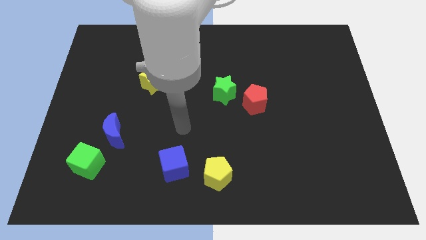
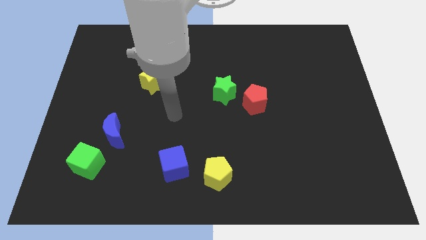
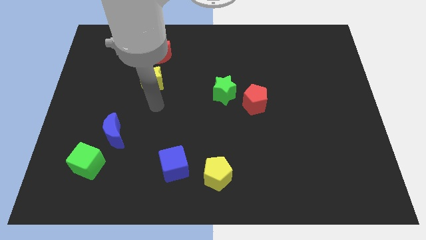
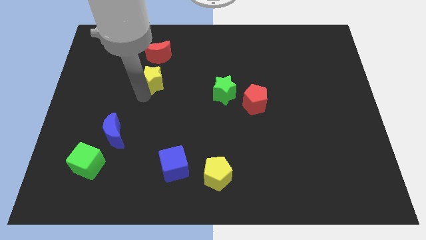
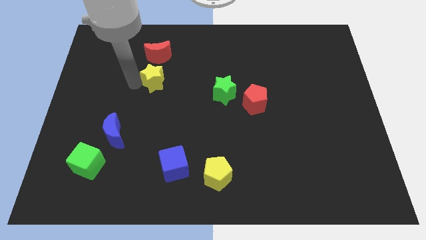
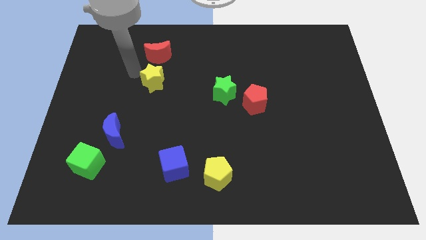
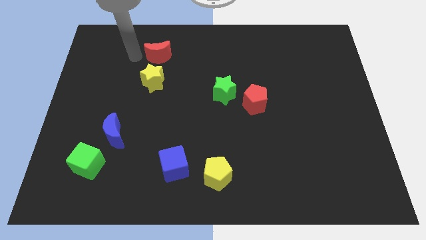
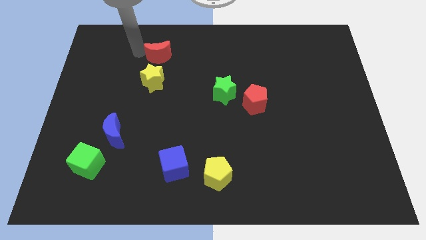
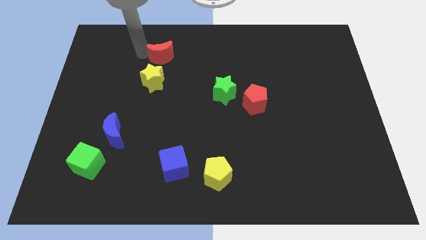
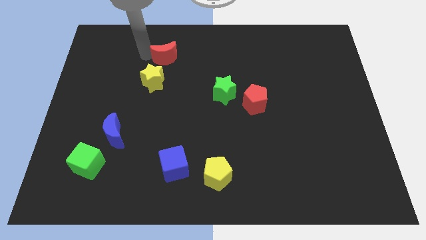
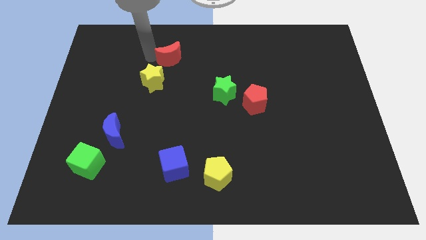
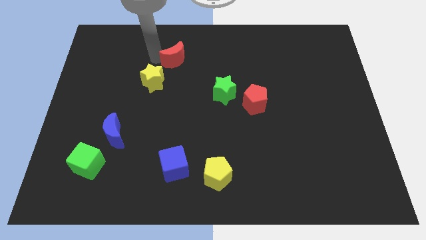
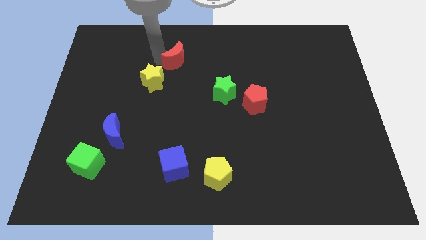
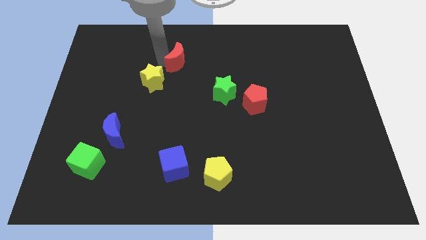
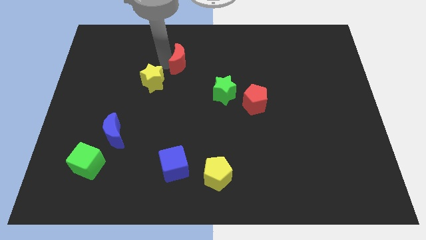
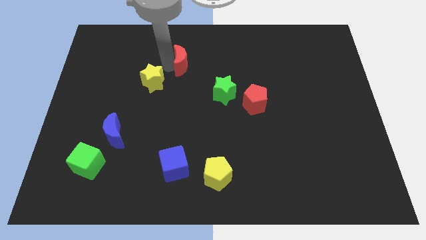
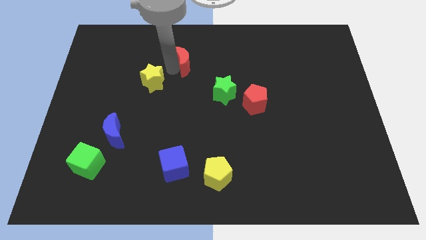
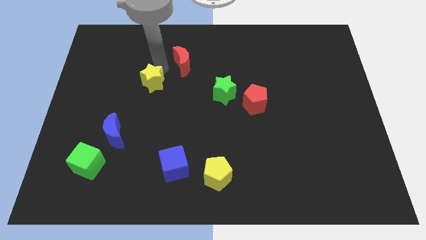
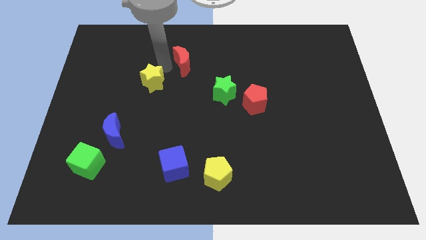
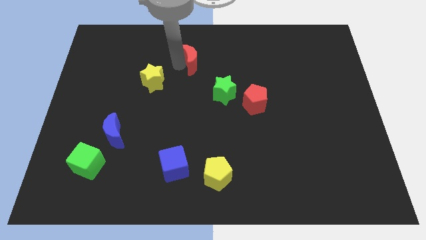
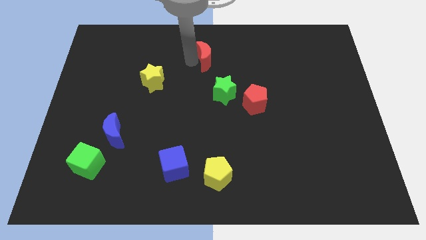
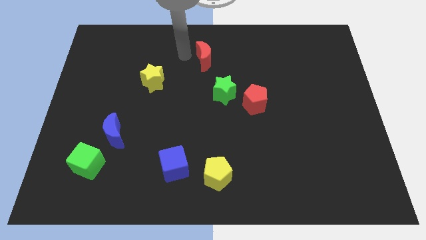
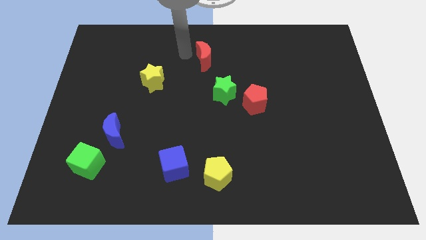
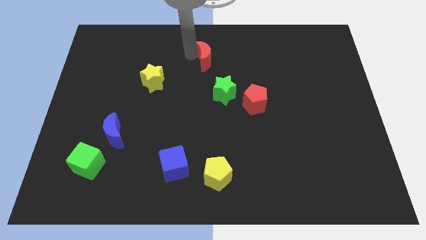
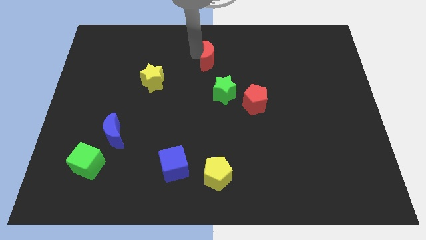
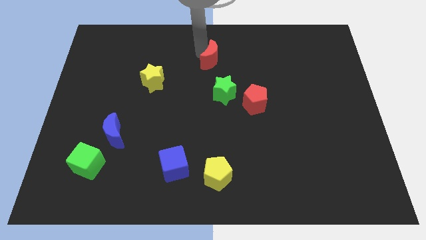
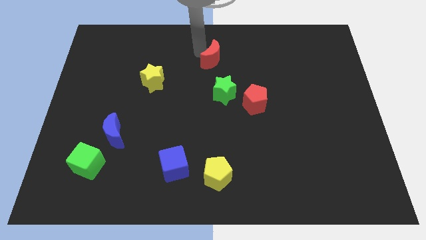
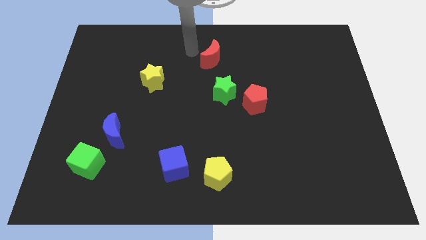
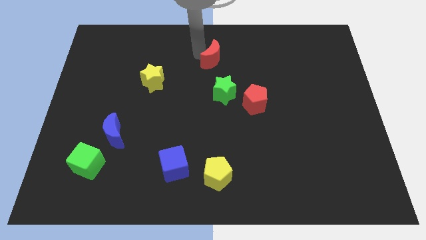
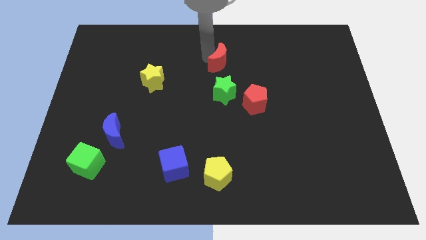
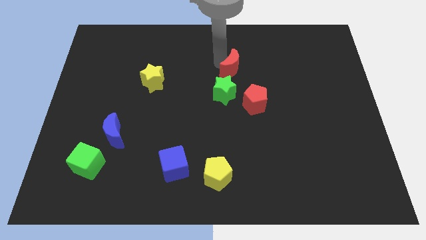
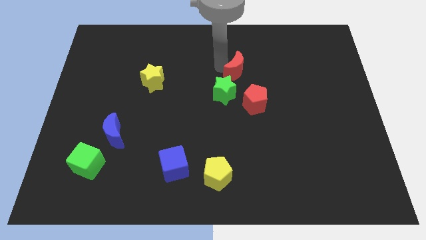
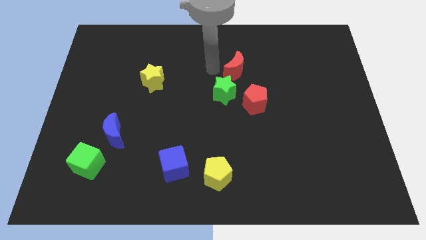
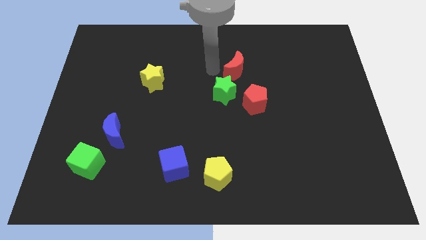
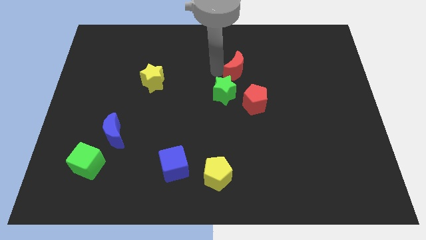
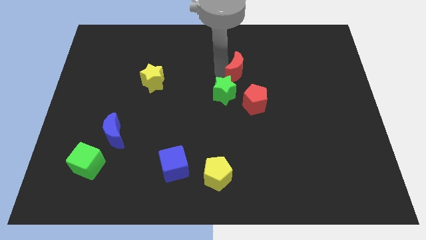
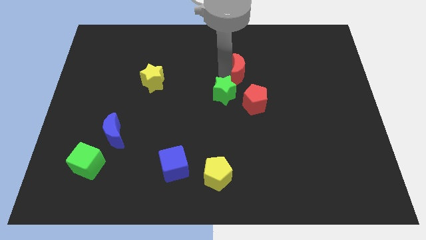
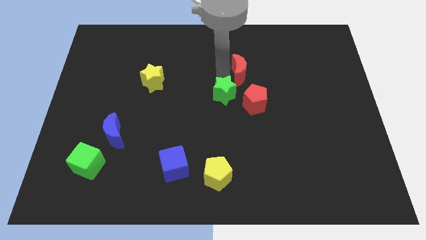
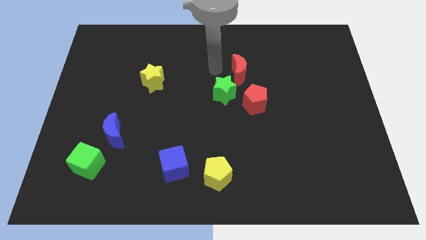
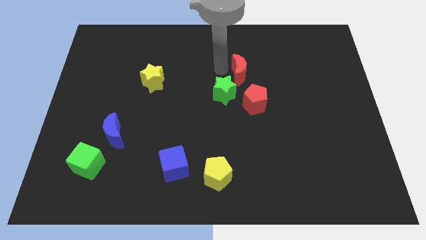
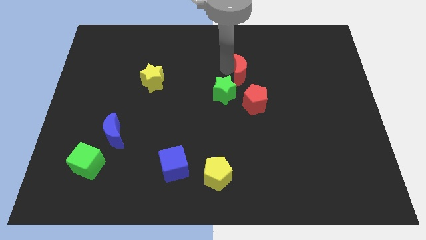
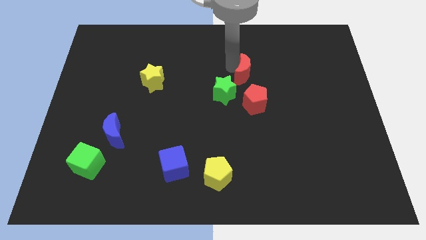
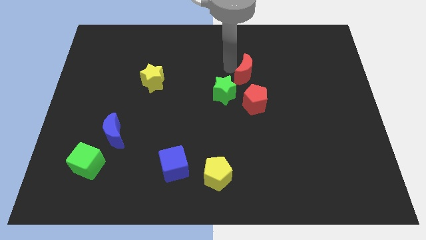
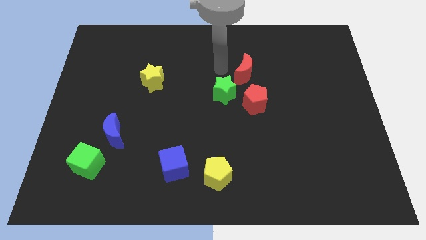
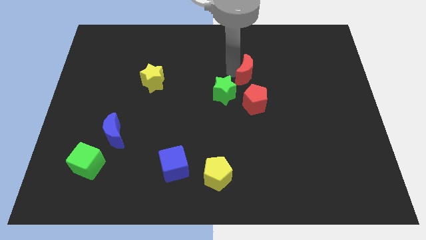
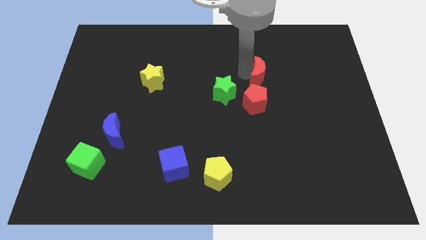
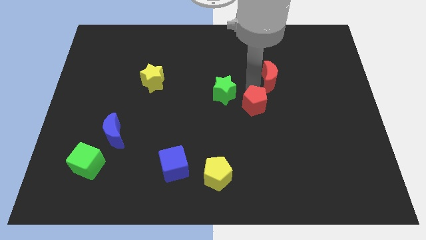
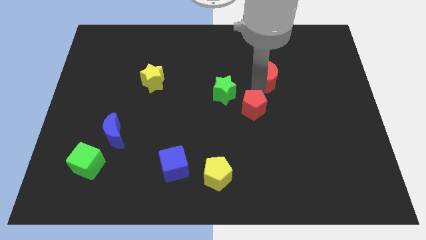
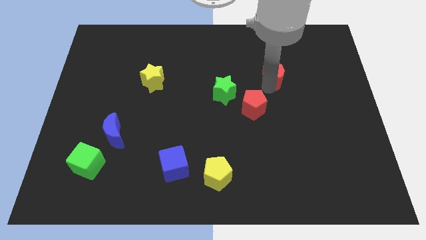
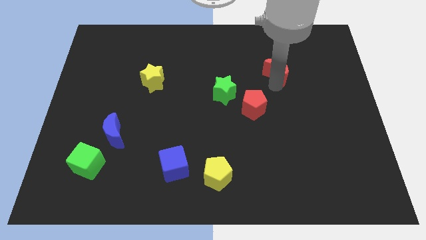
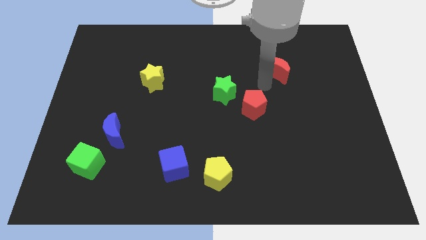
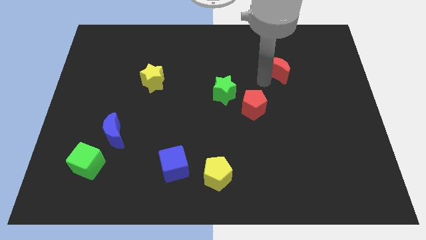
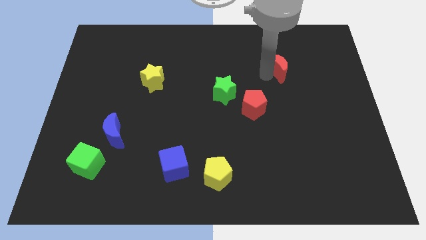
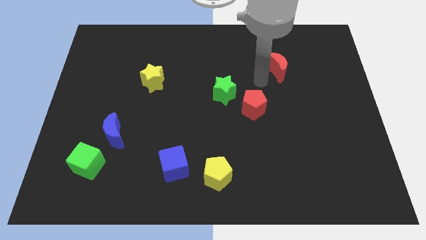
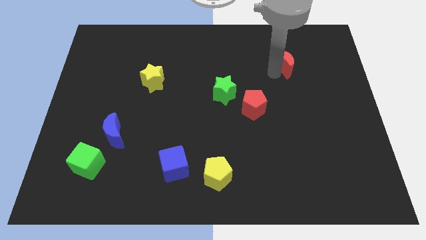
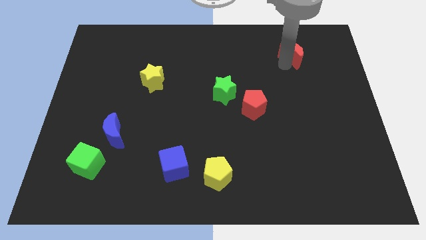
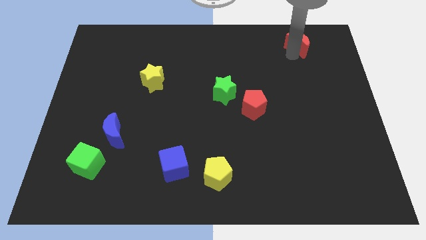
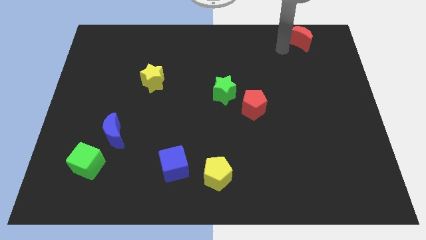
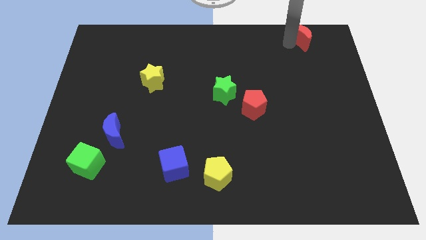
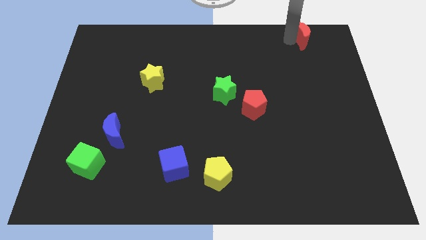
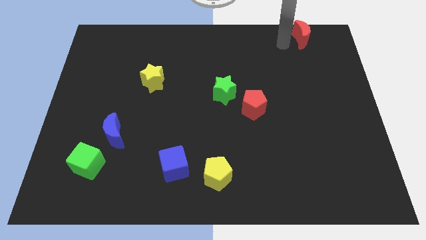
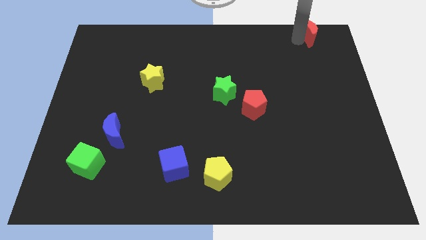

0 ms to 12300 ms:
slide the red moon to the top right

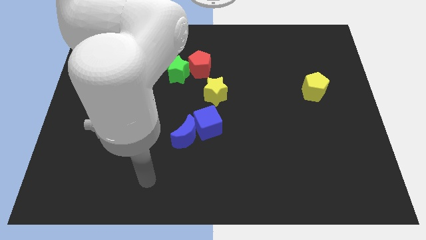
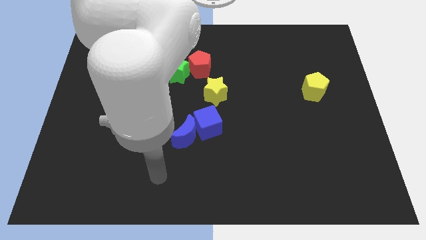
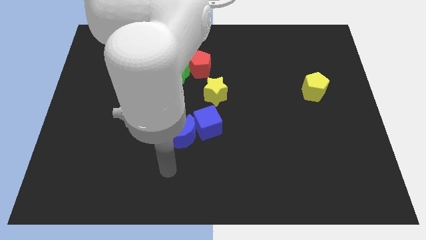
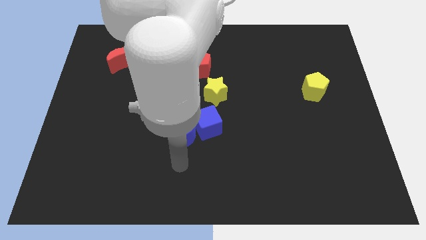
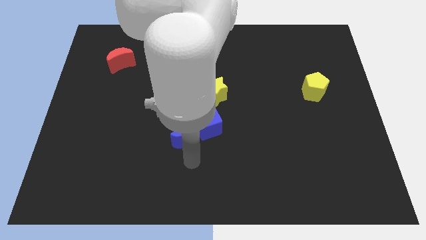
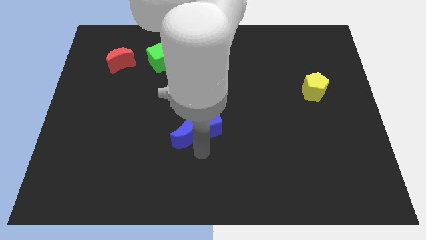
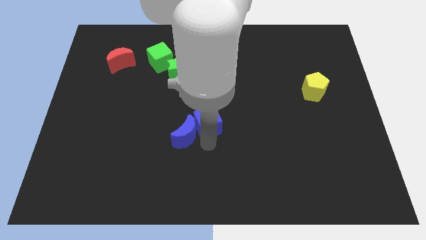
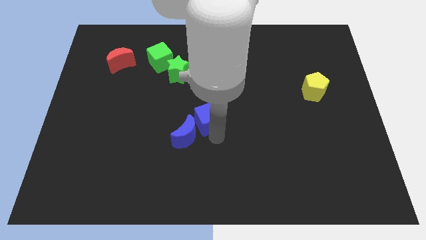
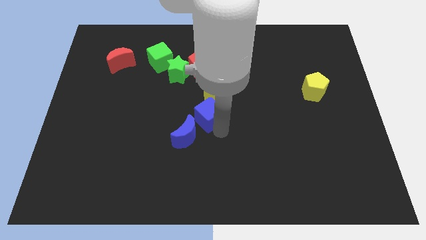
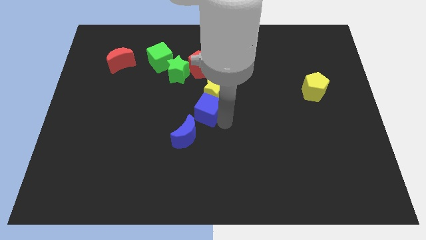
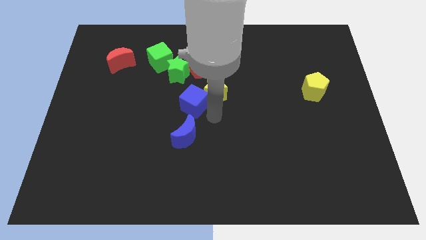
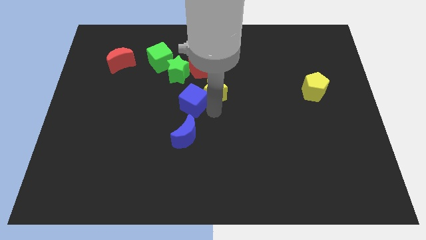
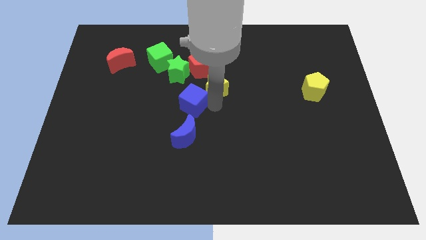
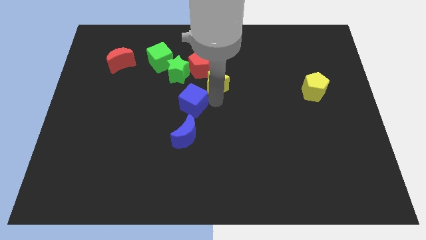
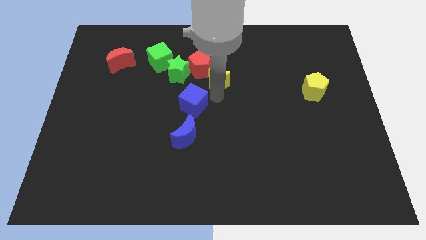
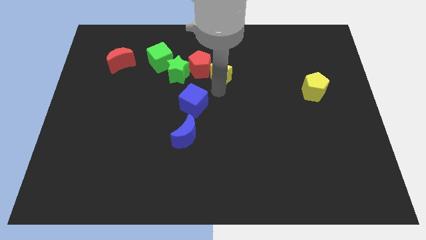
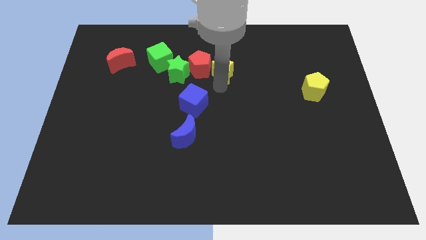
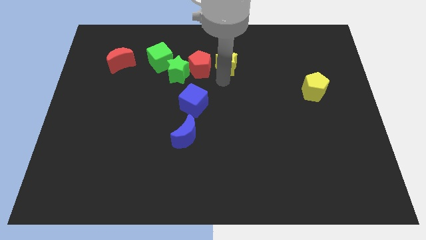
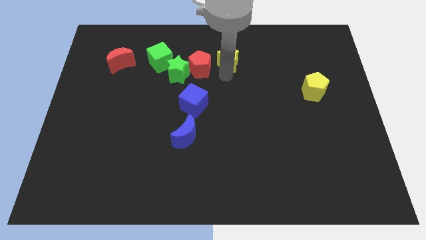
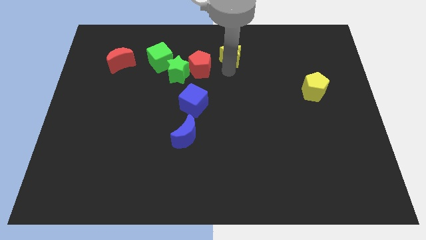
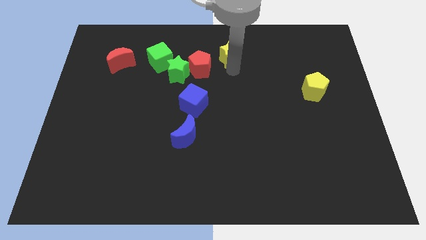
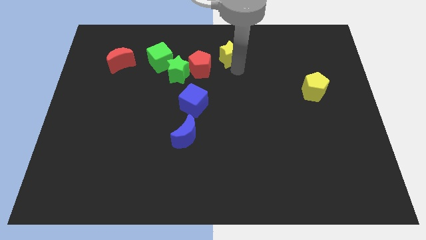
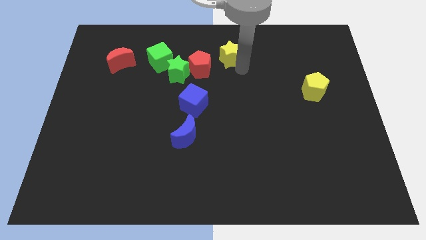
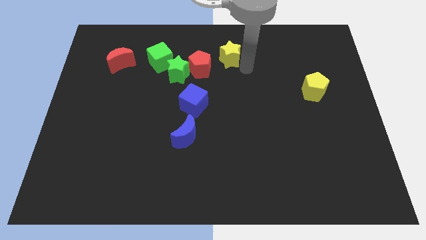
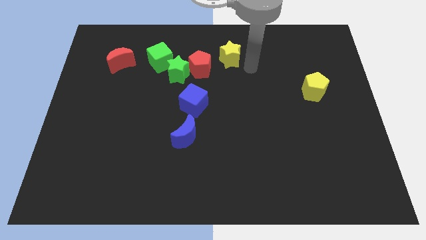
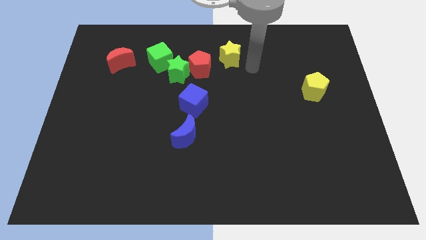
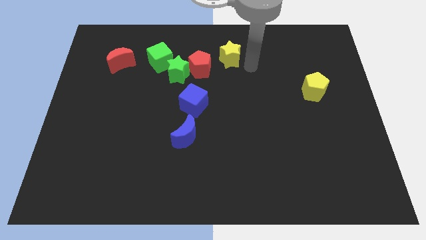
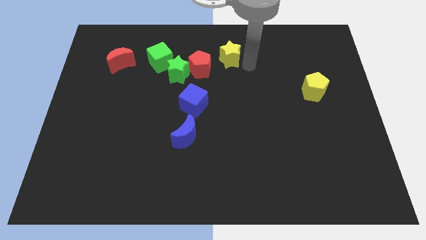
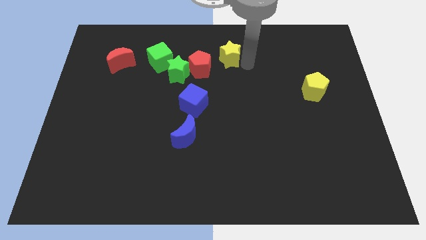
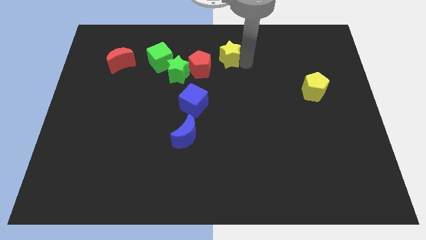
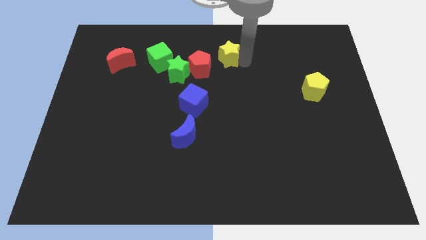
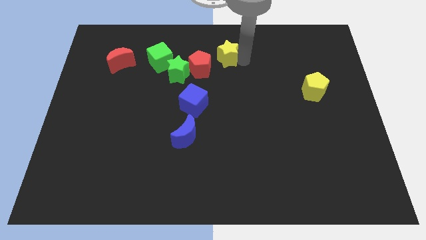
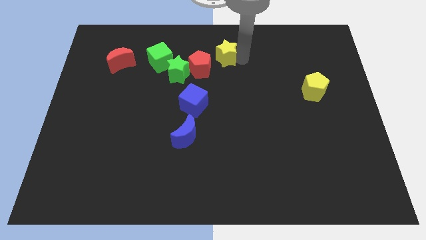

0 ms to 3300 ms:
put the yellow star to the towards your base
